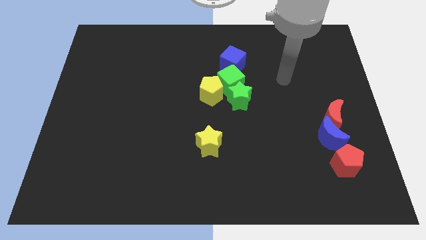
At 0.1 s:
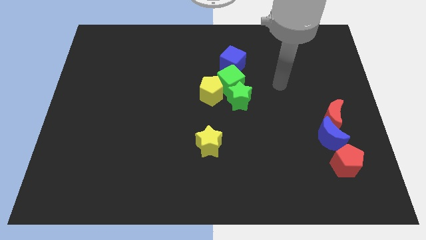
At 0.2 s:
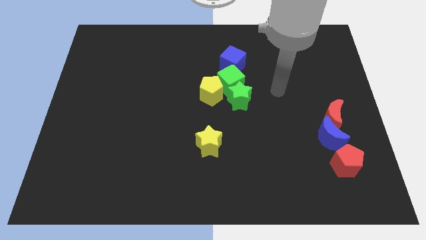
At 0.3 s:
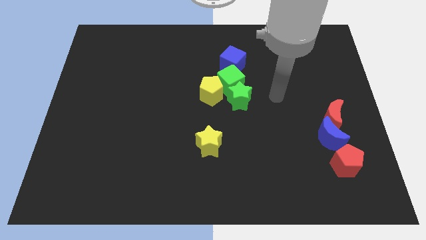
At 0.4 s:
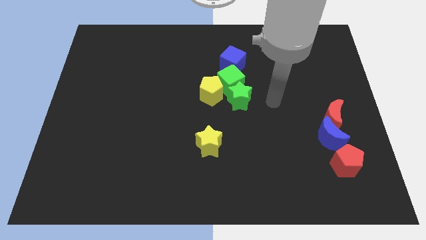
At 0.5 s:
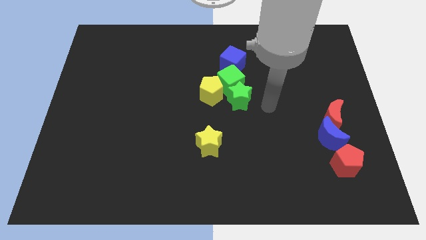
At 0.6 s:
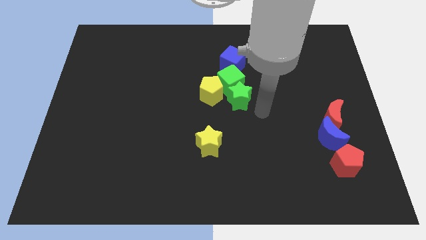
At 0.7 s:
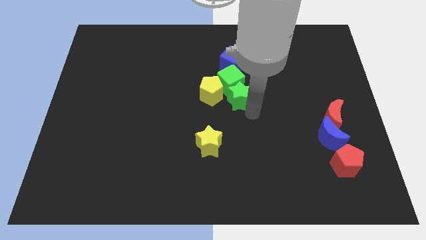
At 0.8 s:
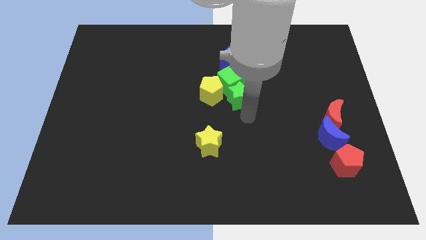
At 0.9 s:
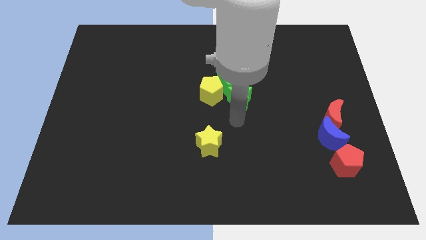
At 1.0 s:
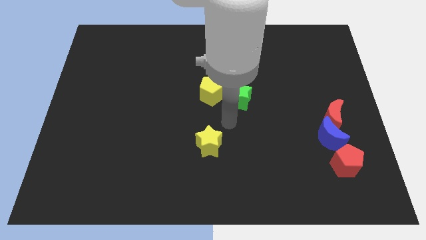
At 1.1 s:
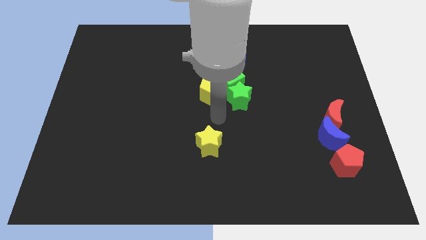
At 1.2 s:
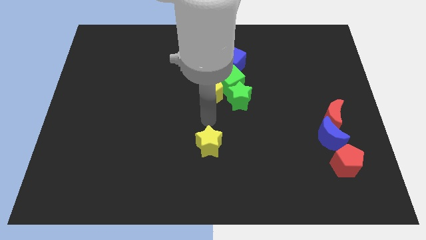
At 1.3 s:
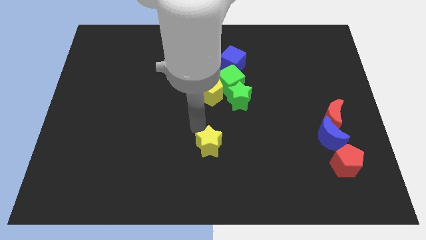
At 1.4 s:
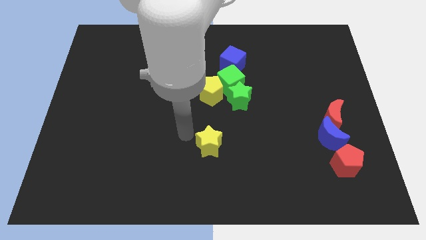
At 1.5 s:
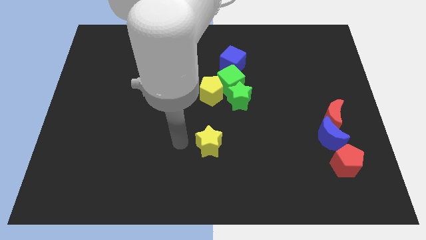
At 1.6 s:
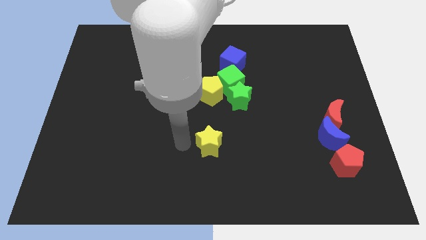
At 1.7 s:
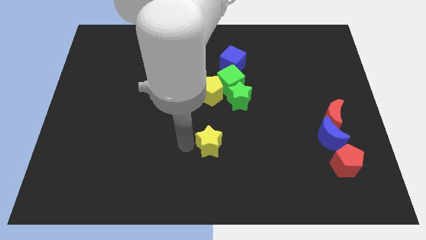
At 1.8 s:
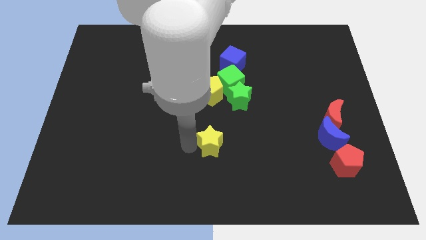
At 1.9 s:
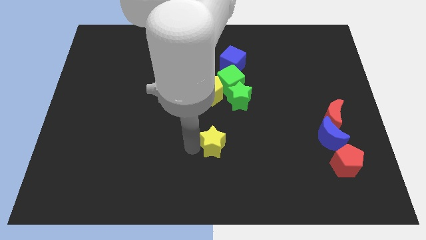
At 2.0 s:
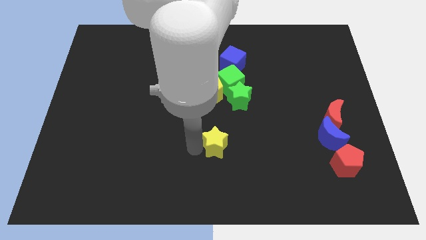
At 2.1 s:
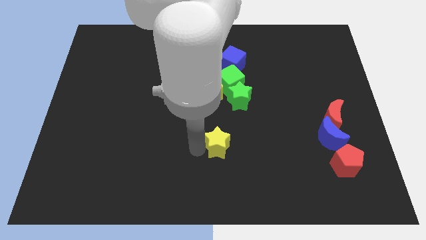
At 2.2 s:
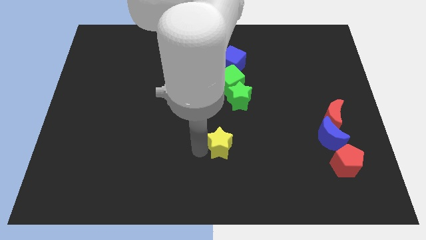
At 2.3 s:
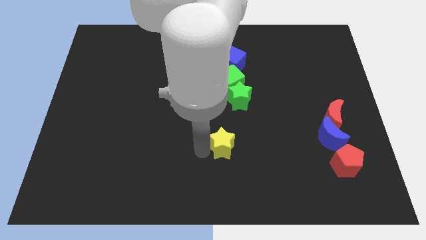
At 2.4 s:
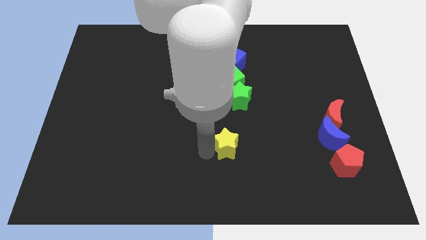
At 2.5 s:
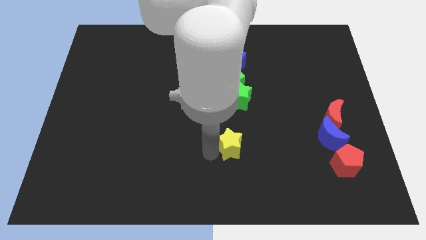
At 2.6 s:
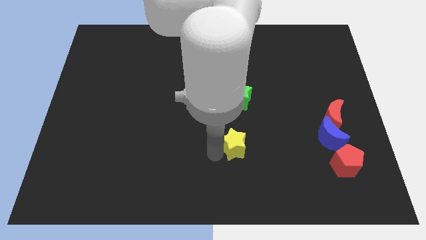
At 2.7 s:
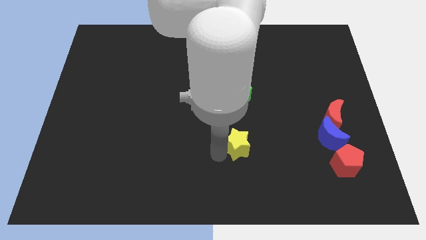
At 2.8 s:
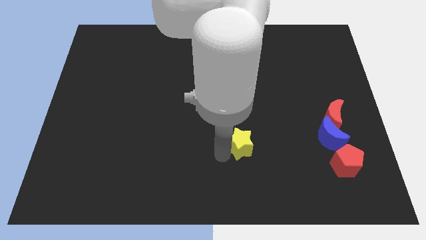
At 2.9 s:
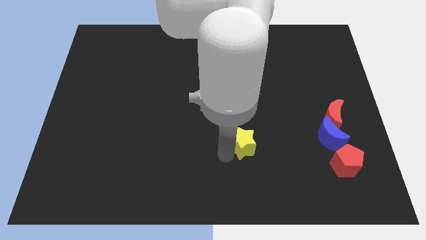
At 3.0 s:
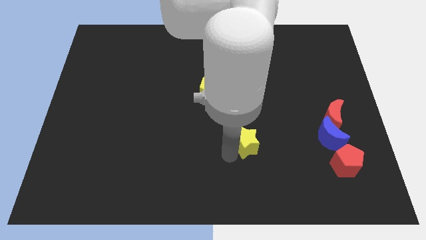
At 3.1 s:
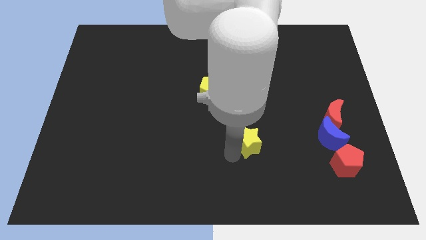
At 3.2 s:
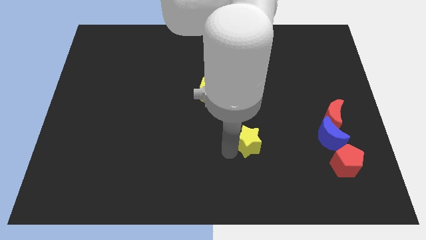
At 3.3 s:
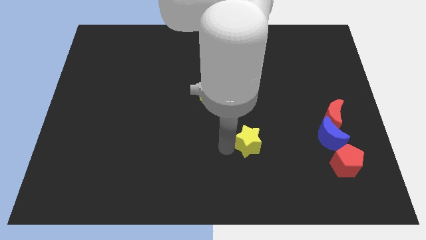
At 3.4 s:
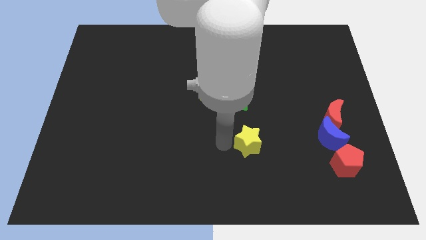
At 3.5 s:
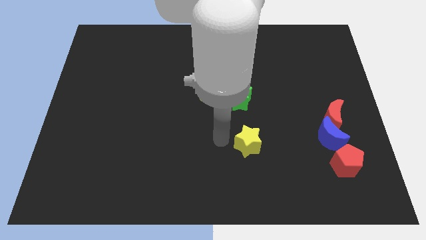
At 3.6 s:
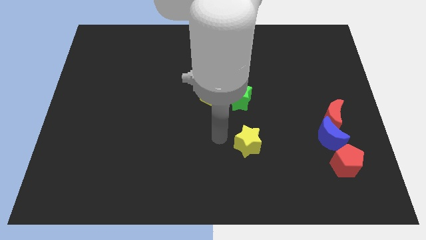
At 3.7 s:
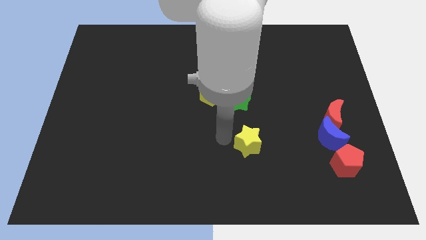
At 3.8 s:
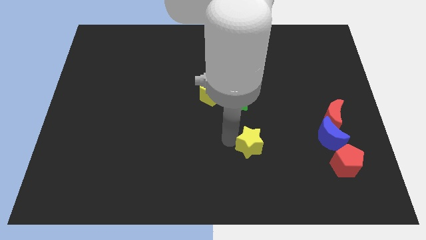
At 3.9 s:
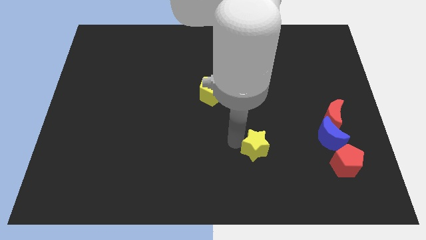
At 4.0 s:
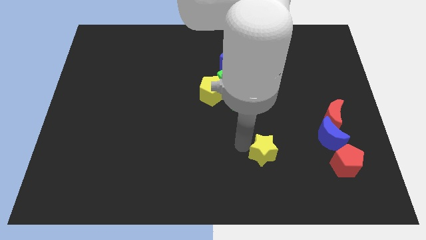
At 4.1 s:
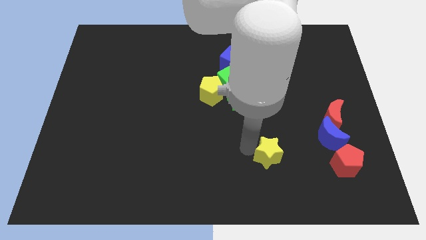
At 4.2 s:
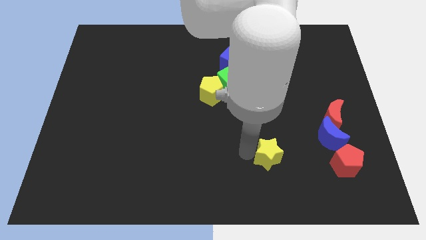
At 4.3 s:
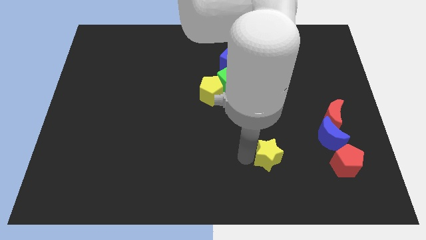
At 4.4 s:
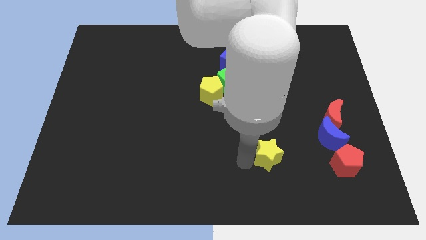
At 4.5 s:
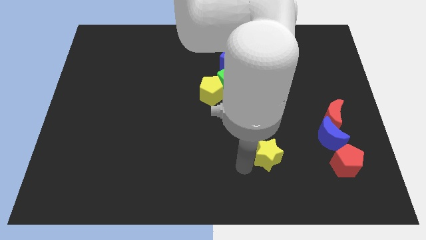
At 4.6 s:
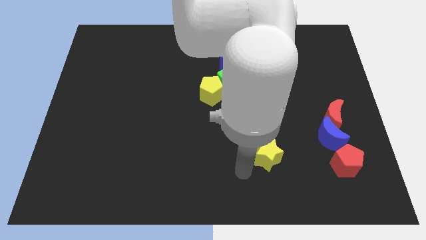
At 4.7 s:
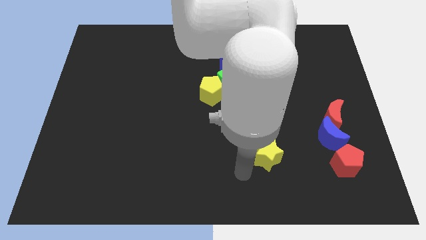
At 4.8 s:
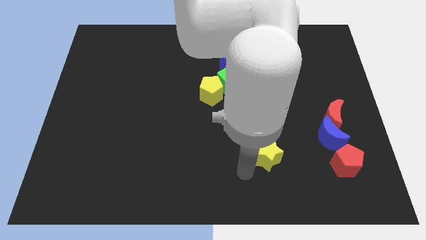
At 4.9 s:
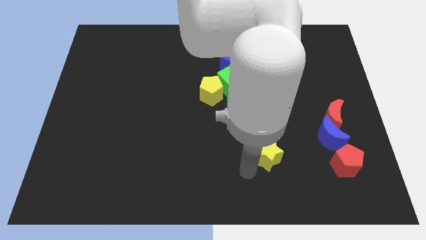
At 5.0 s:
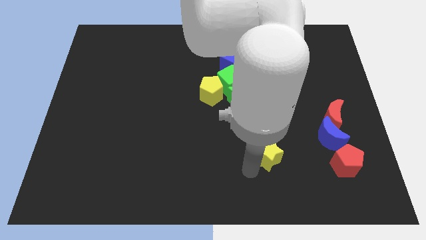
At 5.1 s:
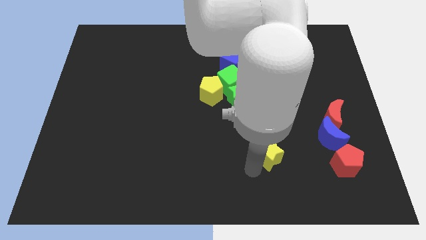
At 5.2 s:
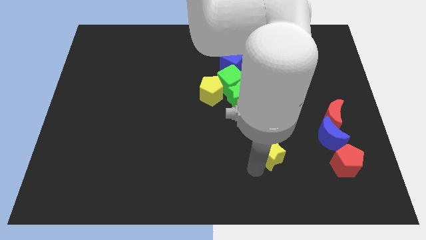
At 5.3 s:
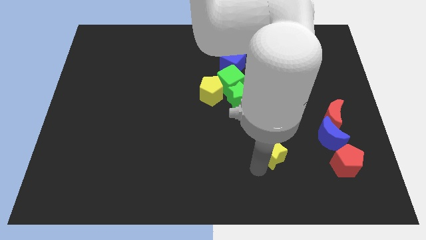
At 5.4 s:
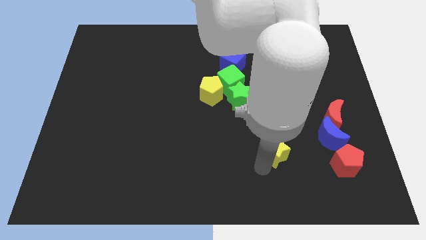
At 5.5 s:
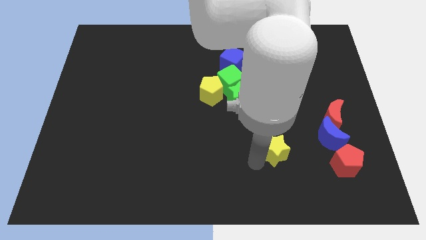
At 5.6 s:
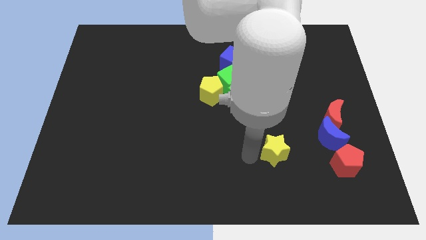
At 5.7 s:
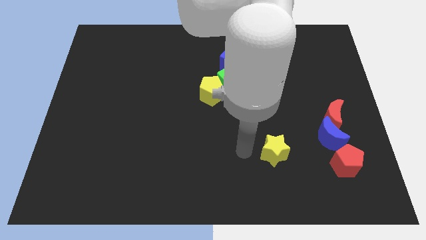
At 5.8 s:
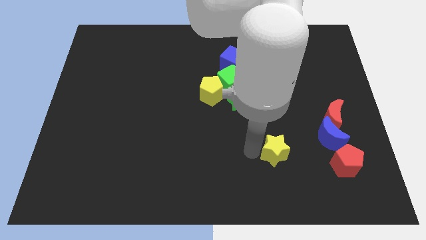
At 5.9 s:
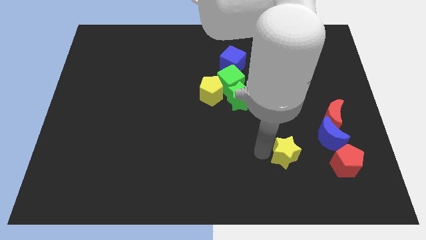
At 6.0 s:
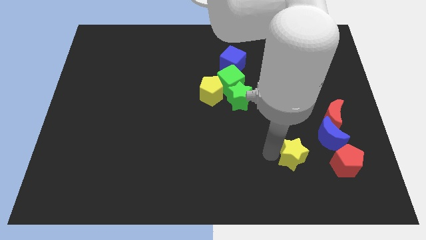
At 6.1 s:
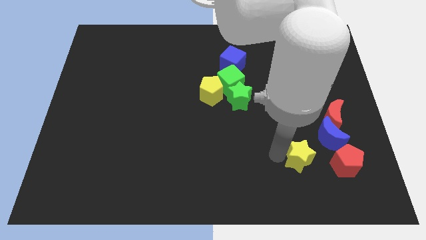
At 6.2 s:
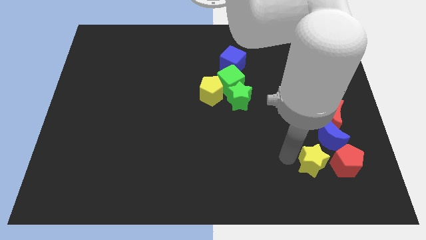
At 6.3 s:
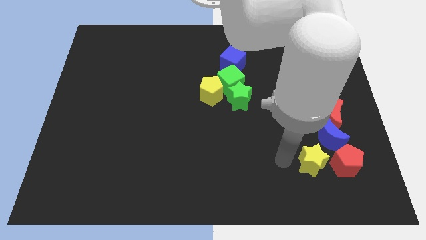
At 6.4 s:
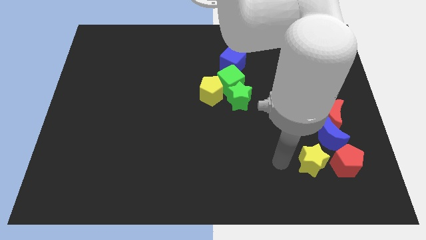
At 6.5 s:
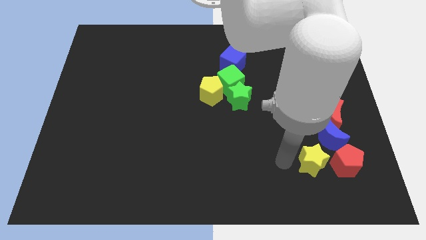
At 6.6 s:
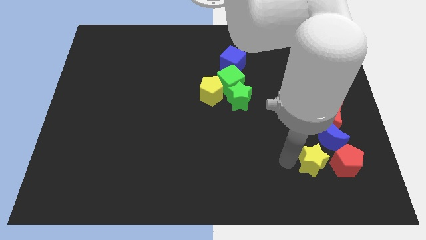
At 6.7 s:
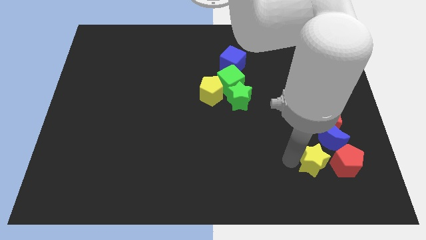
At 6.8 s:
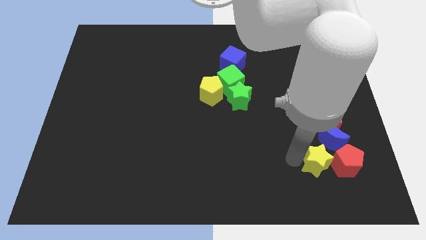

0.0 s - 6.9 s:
move the yellow star close to the red pentagon
